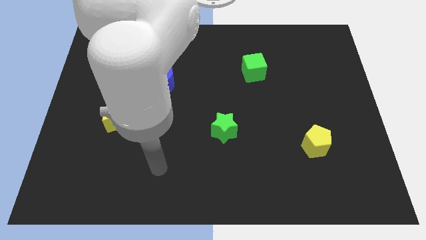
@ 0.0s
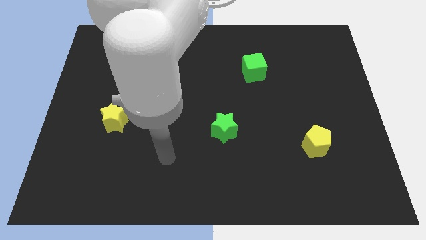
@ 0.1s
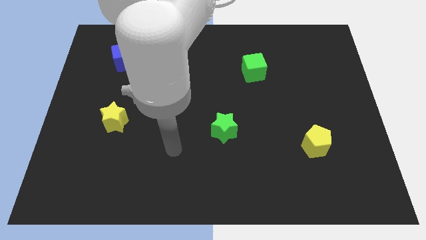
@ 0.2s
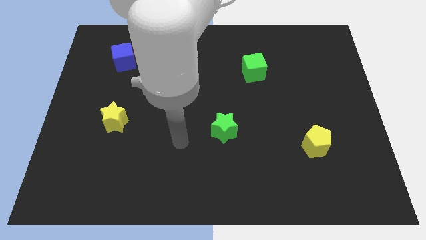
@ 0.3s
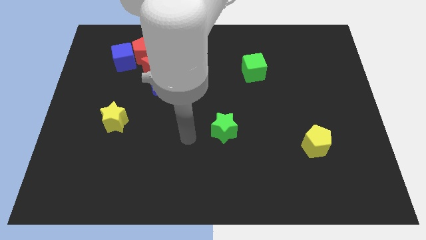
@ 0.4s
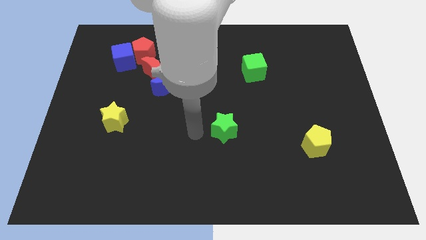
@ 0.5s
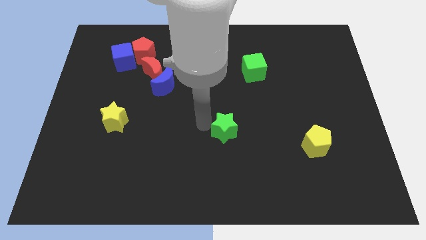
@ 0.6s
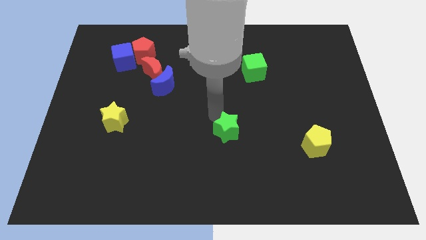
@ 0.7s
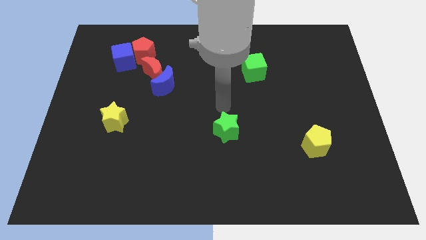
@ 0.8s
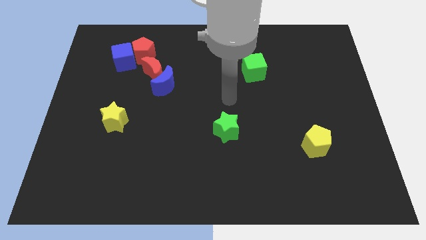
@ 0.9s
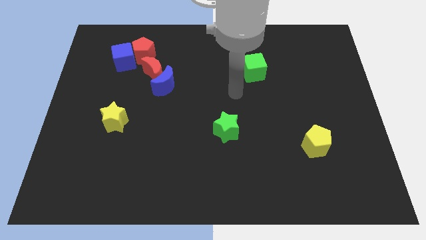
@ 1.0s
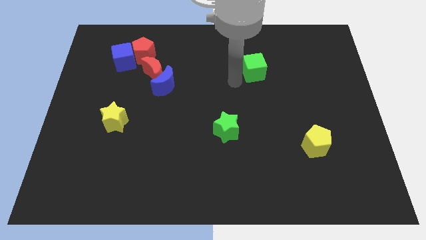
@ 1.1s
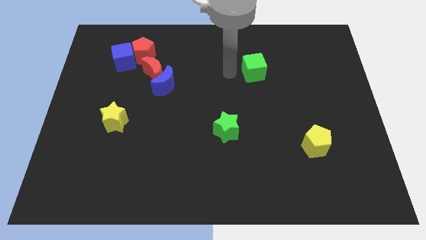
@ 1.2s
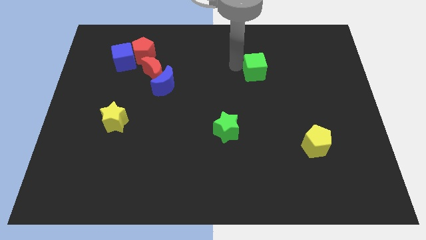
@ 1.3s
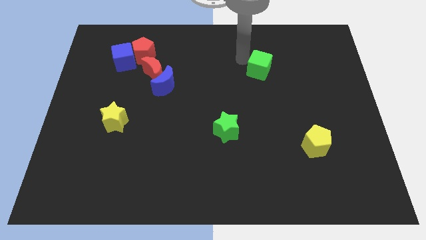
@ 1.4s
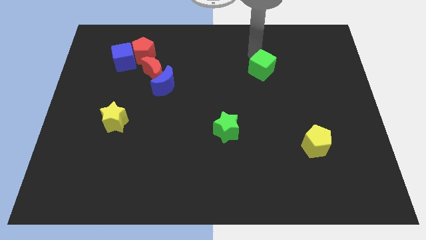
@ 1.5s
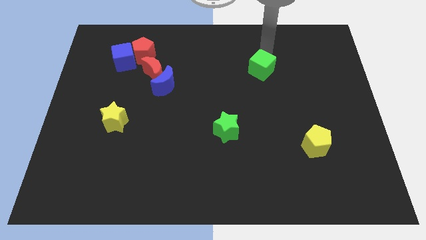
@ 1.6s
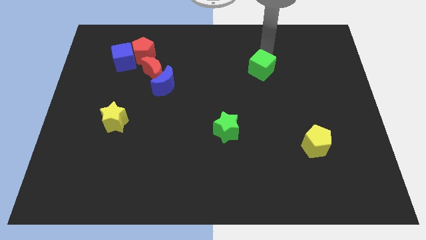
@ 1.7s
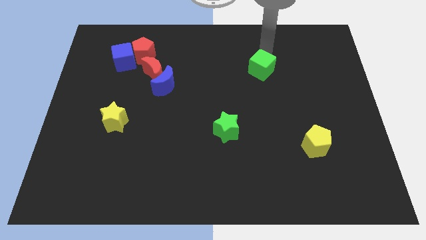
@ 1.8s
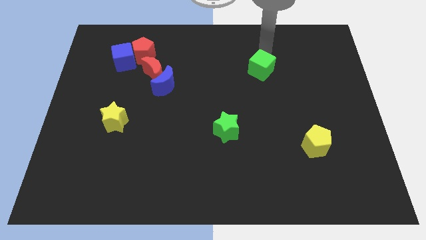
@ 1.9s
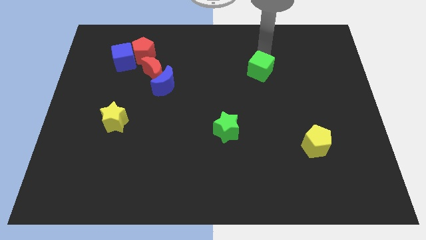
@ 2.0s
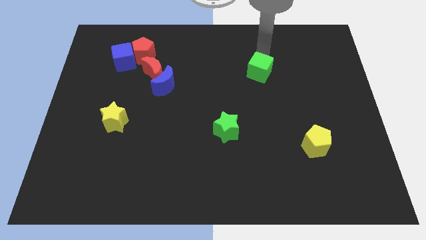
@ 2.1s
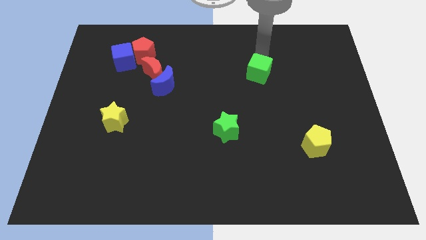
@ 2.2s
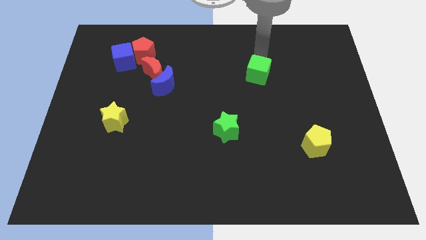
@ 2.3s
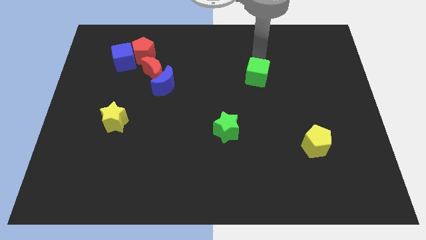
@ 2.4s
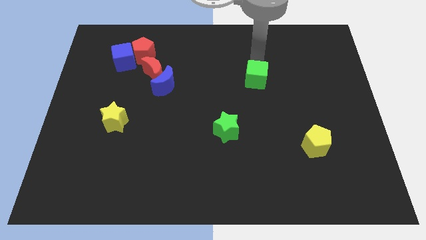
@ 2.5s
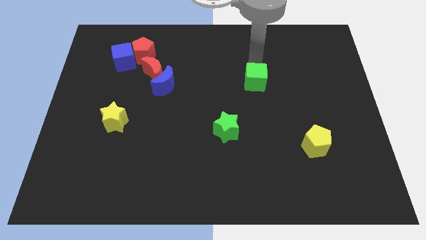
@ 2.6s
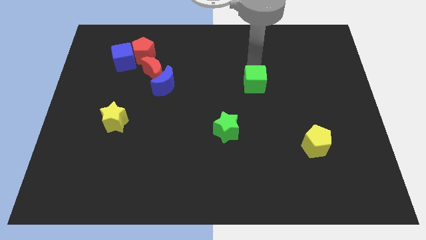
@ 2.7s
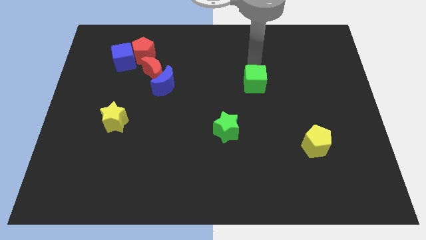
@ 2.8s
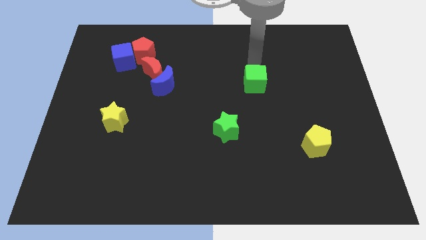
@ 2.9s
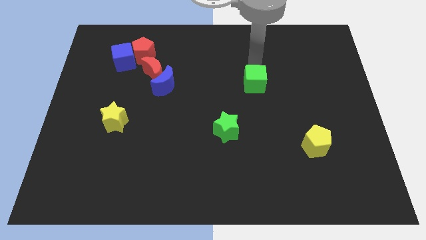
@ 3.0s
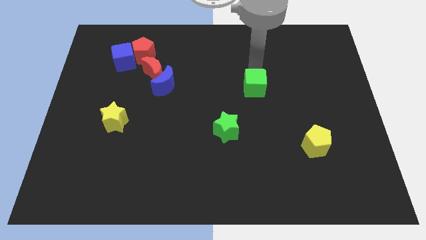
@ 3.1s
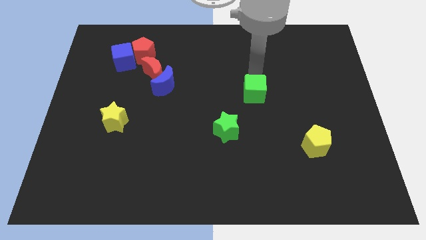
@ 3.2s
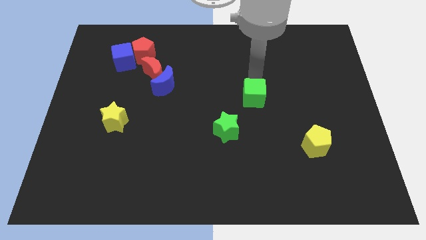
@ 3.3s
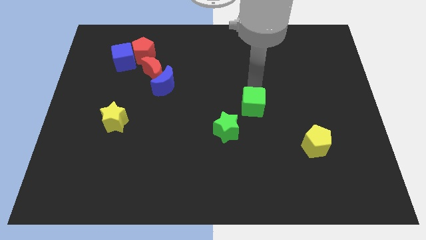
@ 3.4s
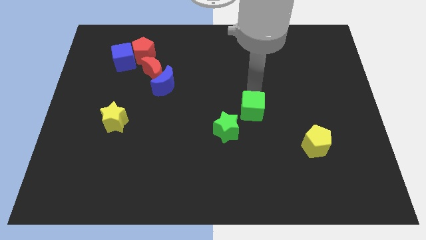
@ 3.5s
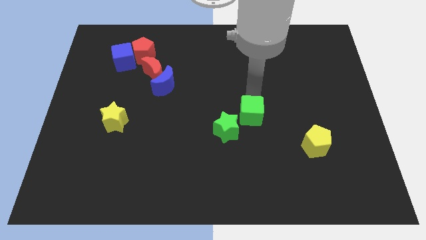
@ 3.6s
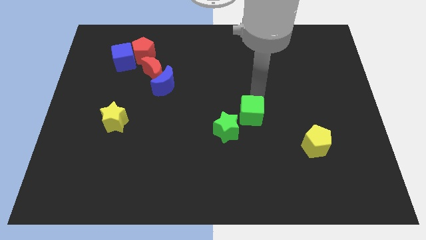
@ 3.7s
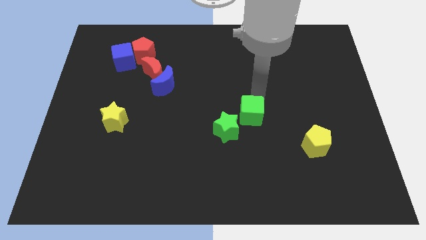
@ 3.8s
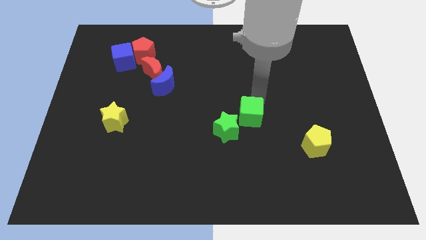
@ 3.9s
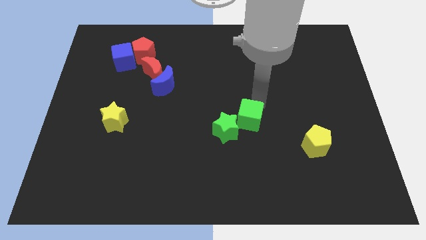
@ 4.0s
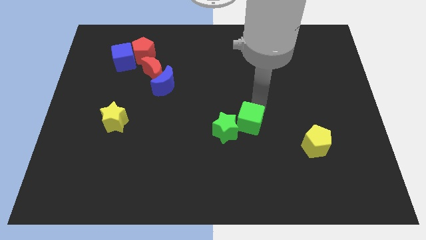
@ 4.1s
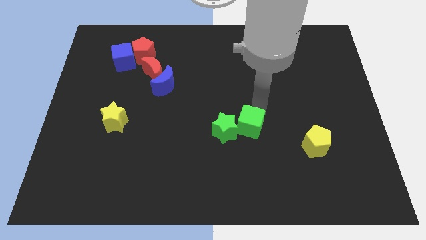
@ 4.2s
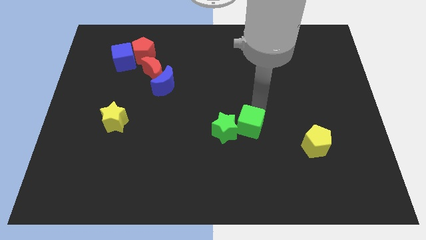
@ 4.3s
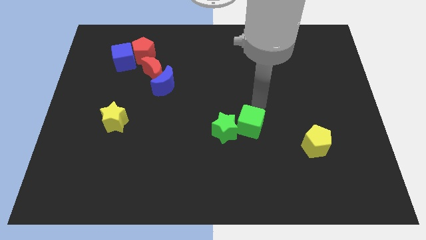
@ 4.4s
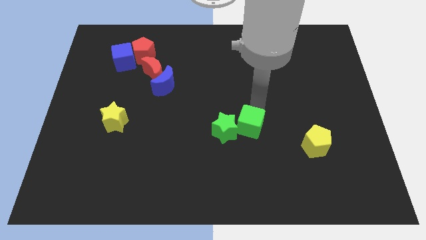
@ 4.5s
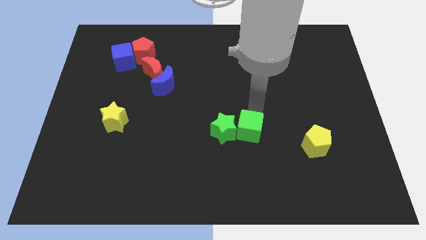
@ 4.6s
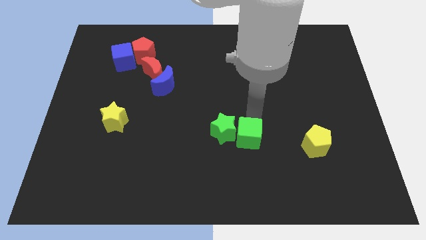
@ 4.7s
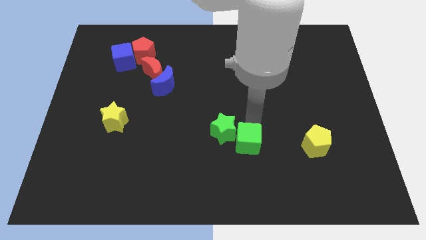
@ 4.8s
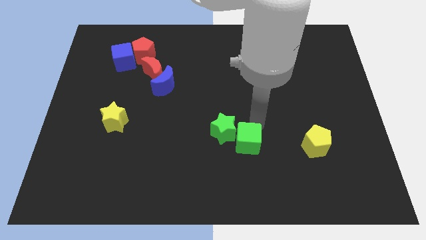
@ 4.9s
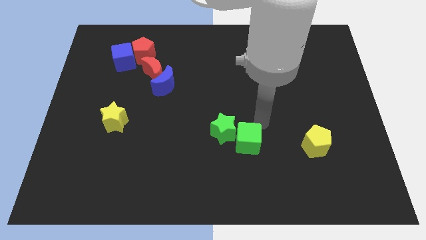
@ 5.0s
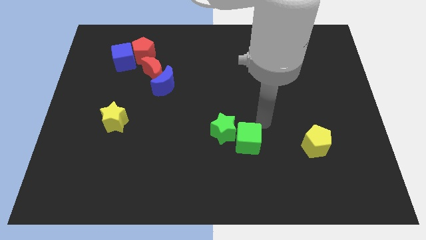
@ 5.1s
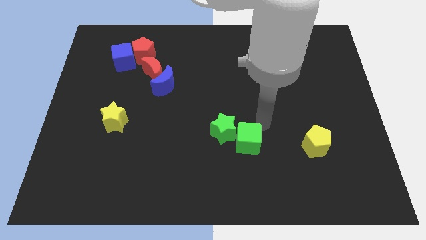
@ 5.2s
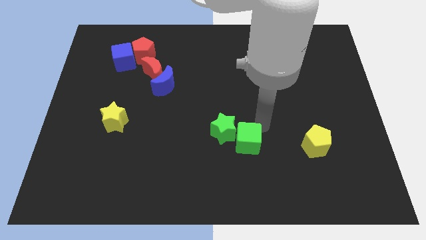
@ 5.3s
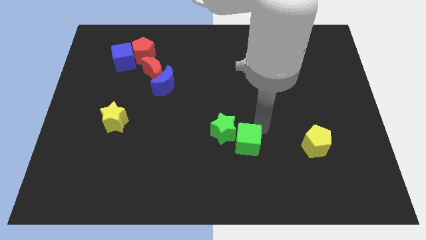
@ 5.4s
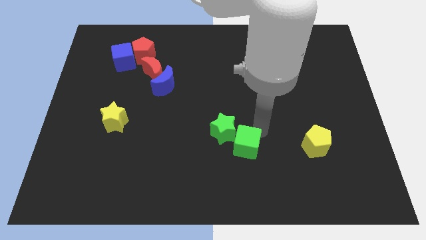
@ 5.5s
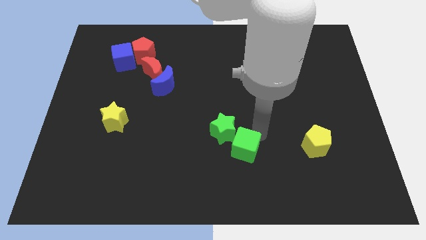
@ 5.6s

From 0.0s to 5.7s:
put the green cube to the bottom side of the green star

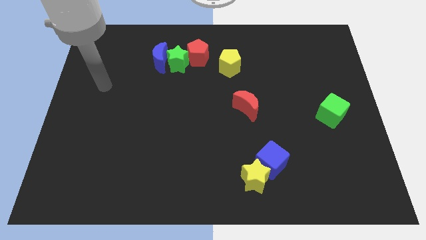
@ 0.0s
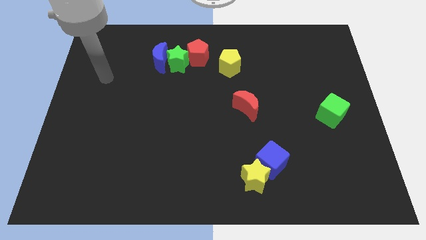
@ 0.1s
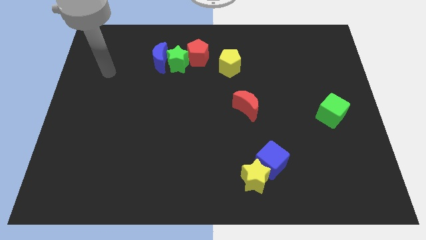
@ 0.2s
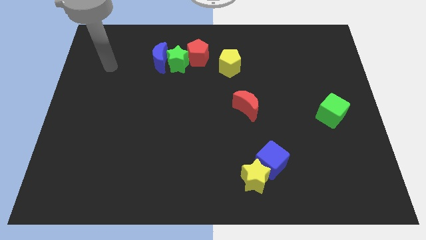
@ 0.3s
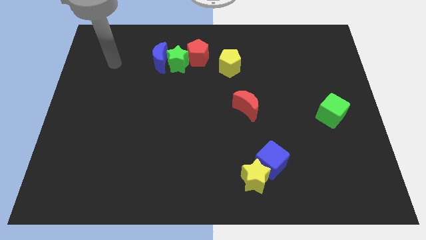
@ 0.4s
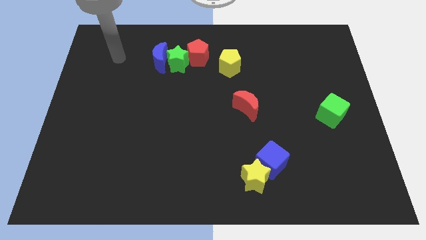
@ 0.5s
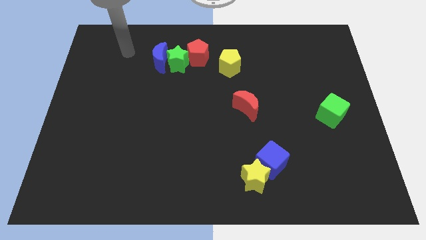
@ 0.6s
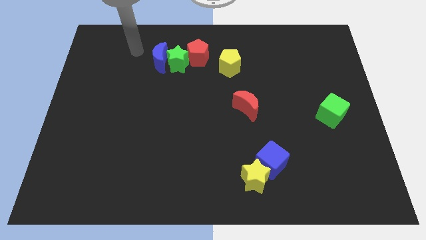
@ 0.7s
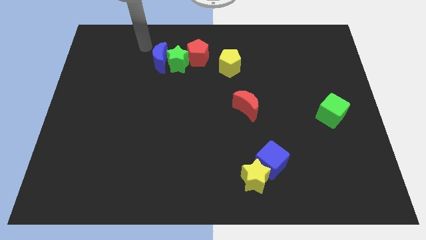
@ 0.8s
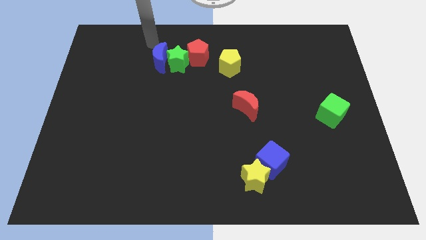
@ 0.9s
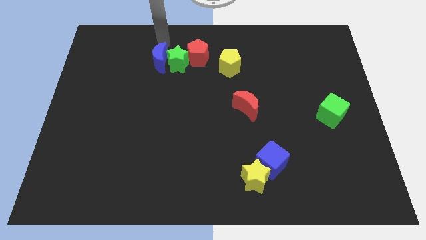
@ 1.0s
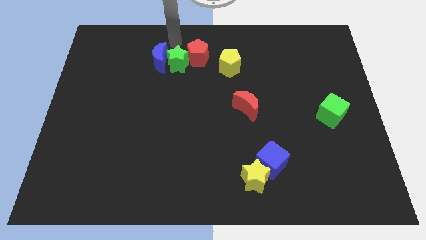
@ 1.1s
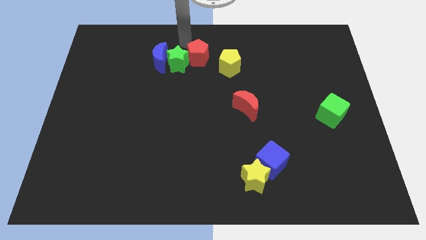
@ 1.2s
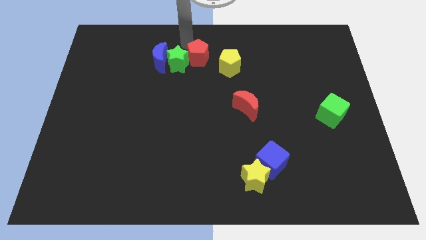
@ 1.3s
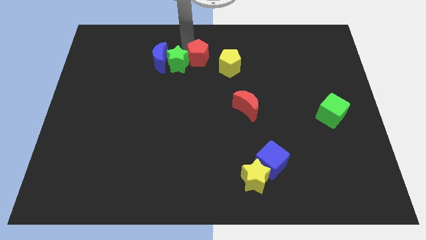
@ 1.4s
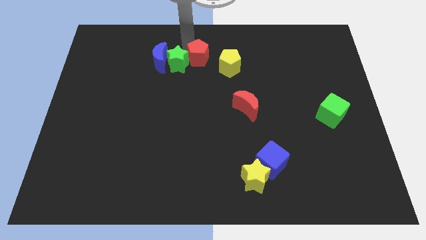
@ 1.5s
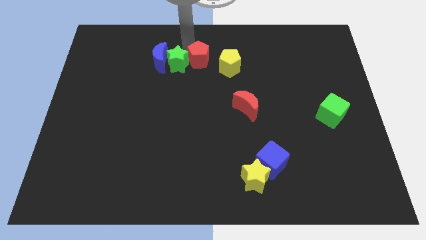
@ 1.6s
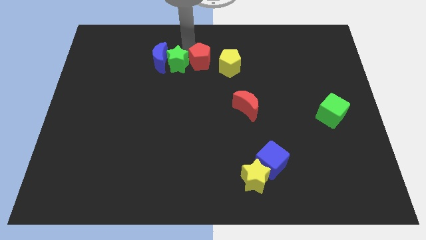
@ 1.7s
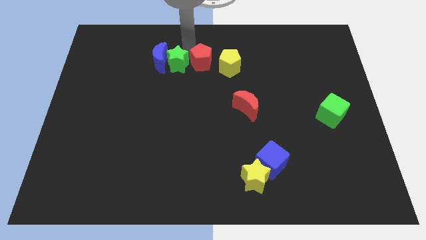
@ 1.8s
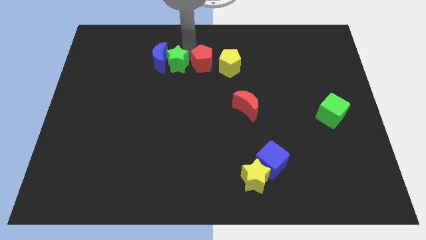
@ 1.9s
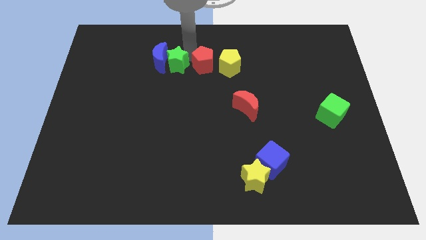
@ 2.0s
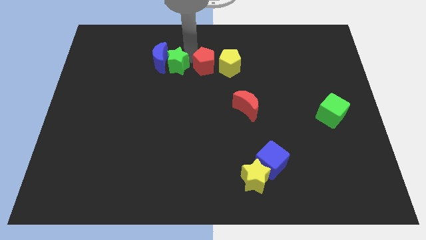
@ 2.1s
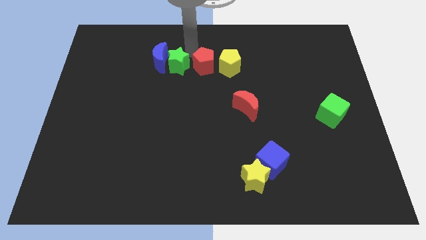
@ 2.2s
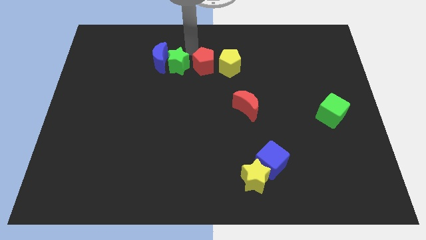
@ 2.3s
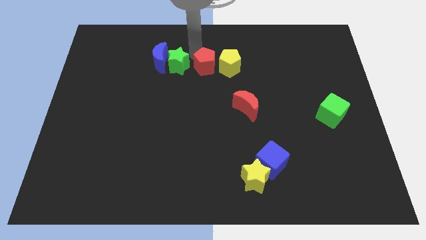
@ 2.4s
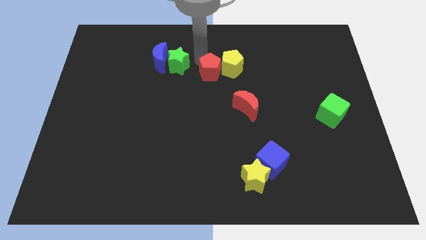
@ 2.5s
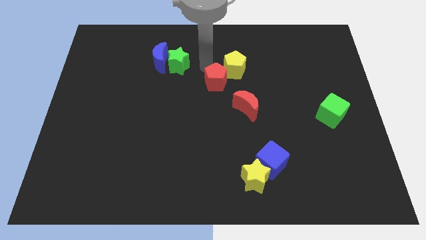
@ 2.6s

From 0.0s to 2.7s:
push the red pentagon to the bottom side of the yellow pentagon
